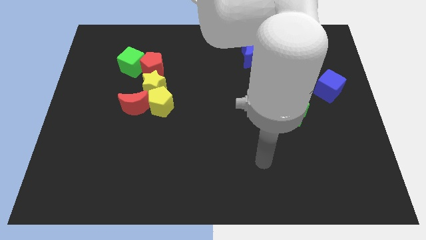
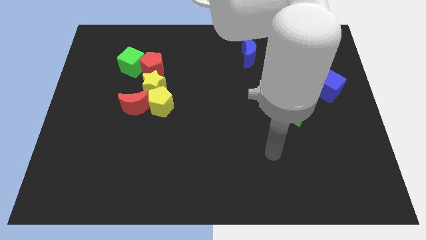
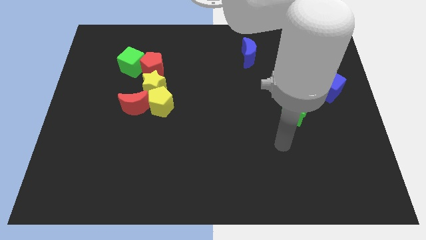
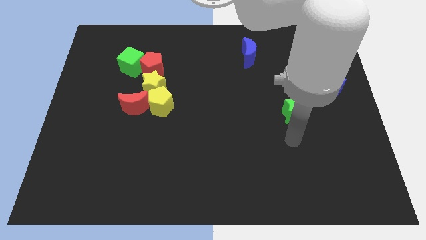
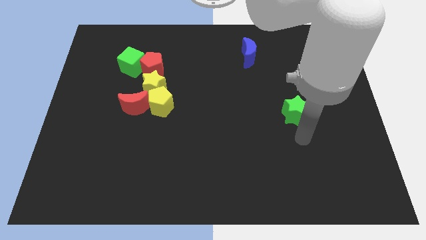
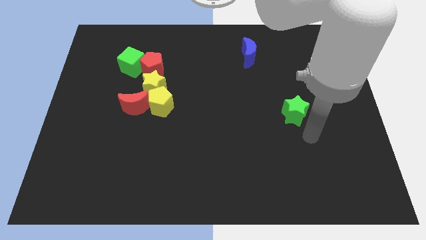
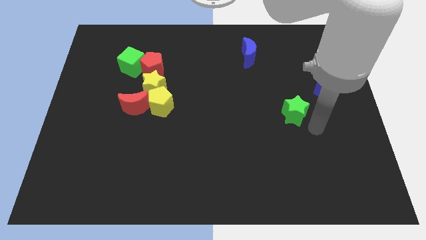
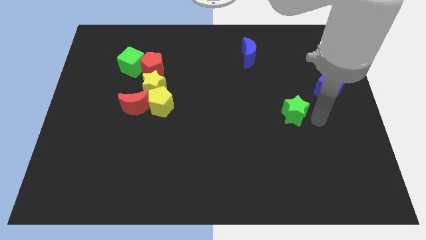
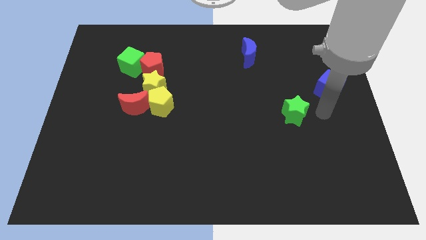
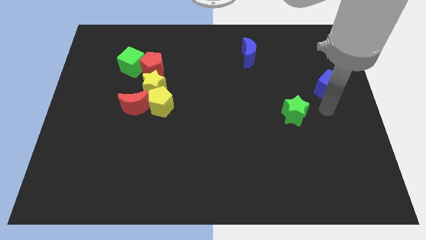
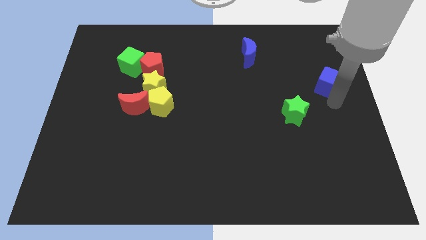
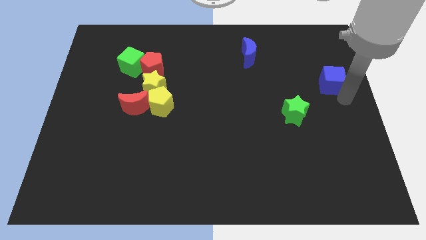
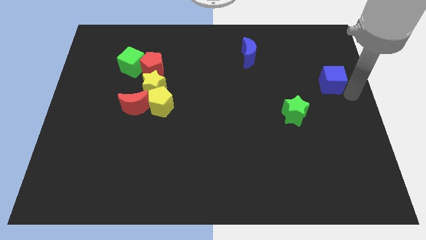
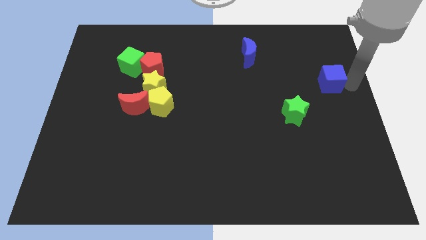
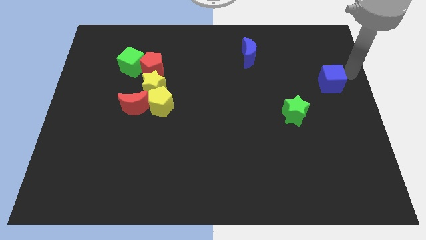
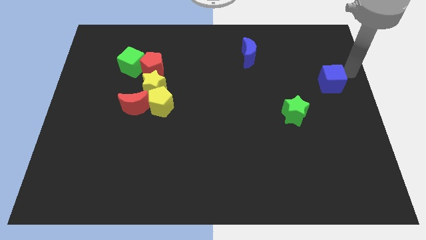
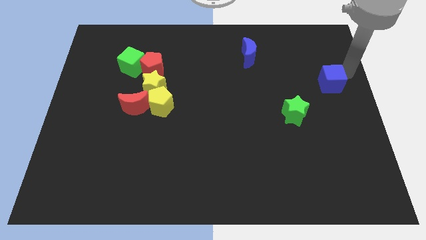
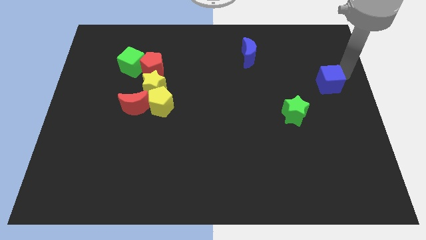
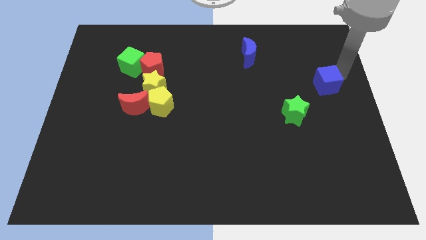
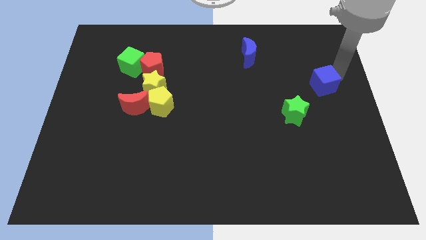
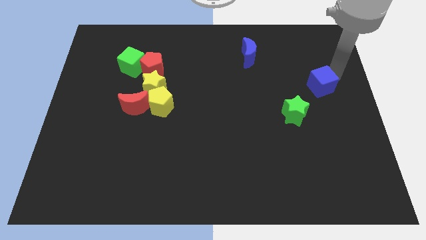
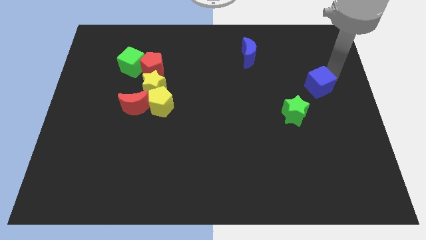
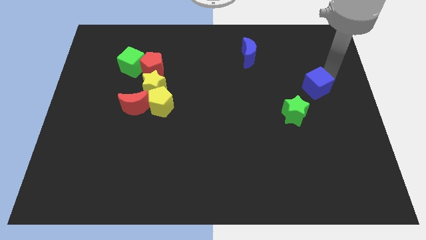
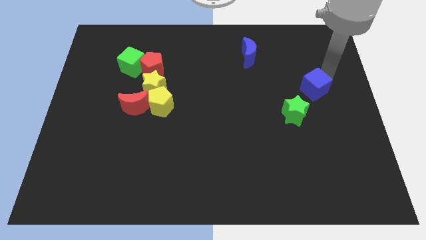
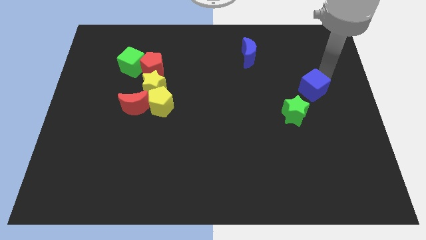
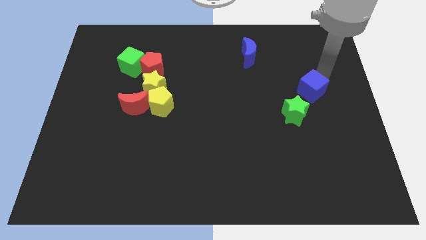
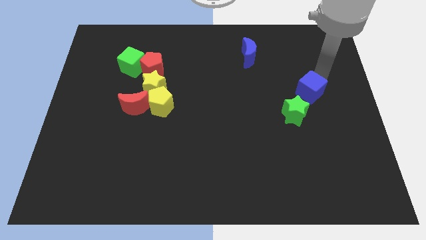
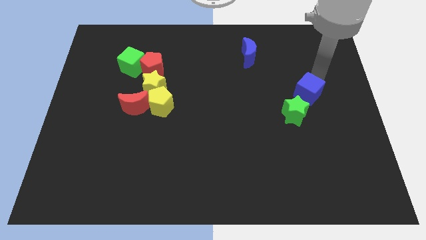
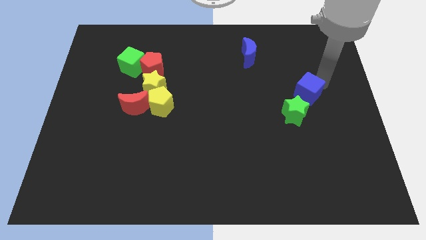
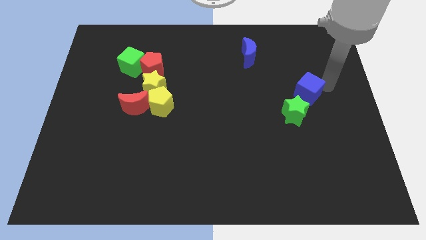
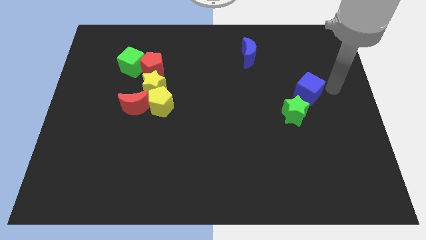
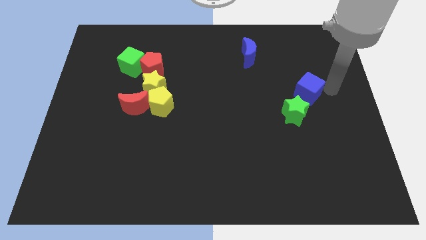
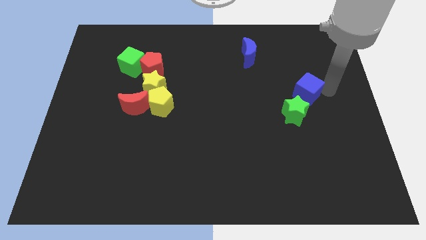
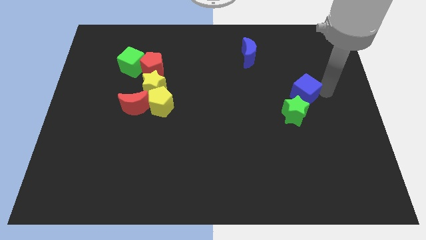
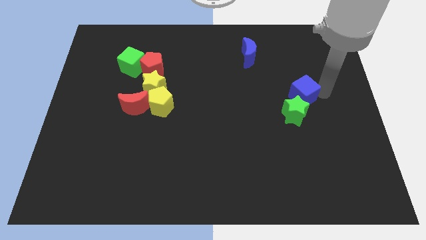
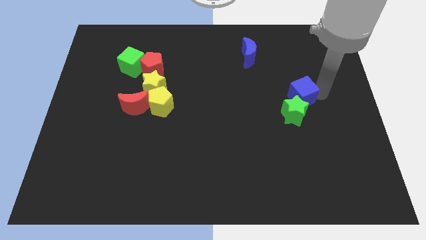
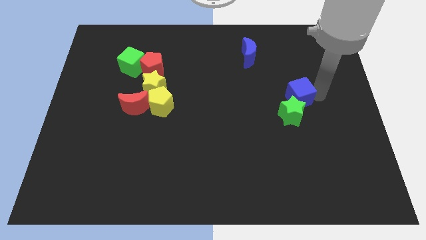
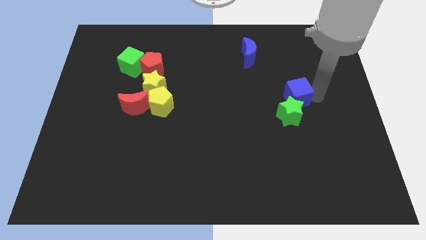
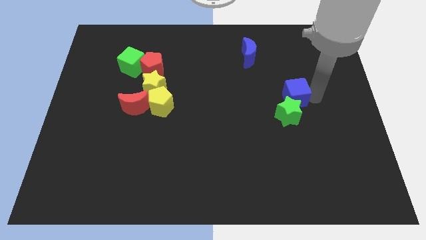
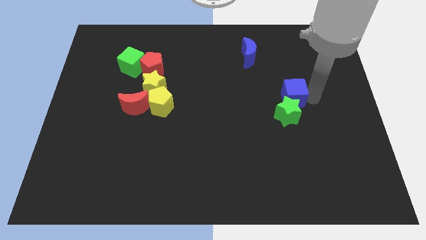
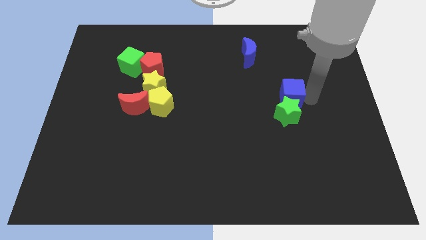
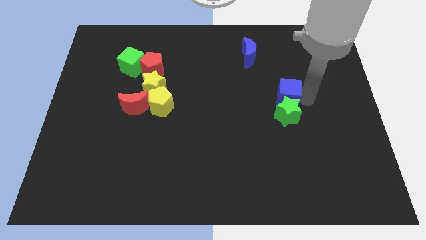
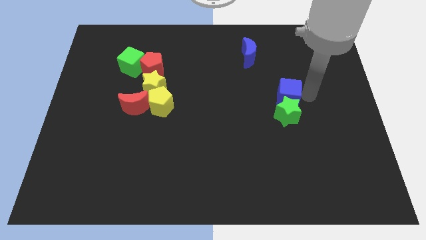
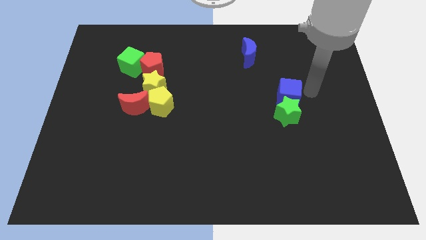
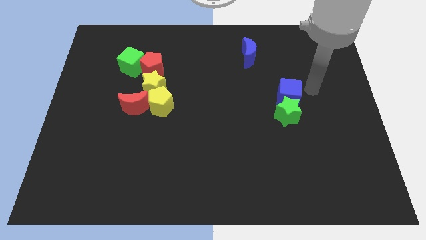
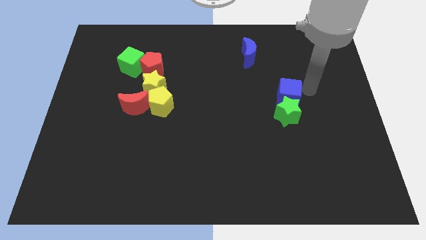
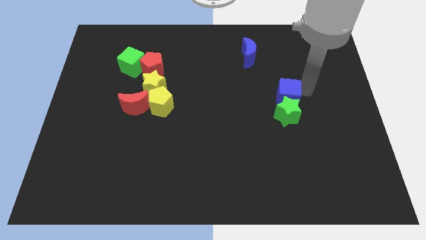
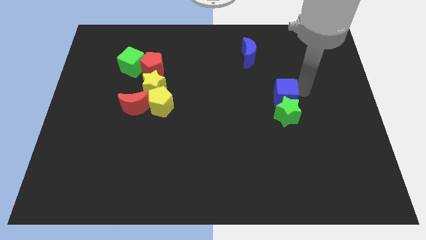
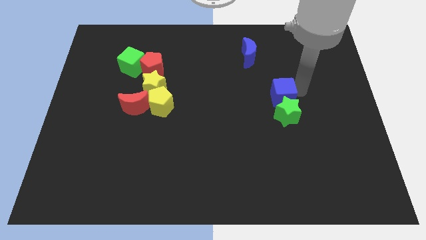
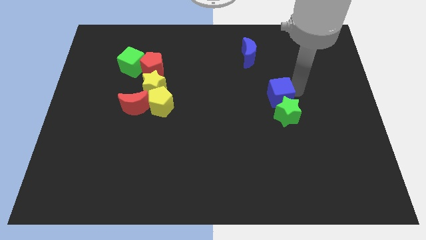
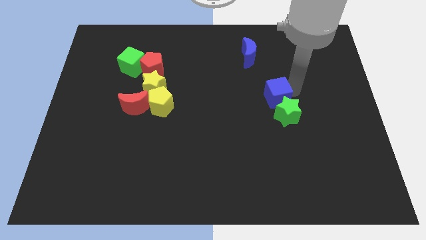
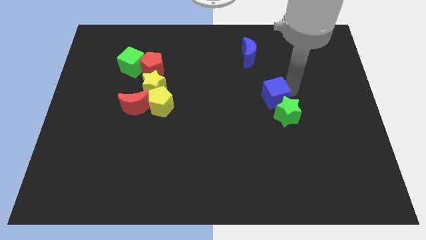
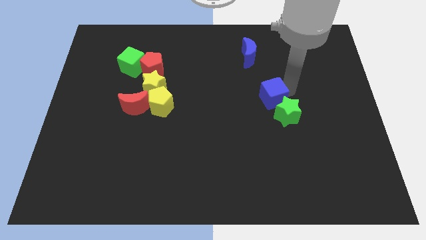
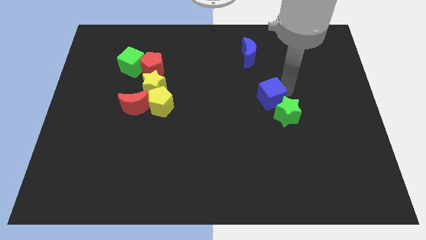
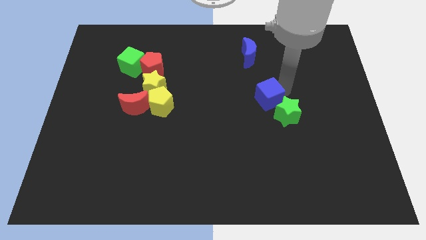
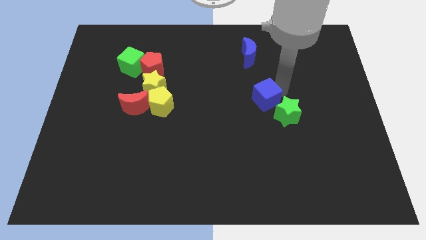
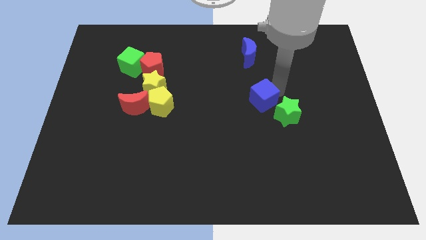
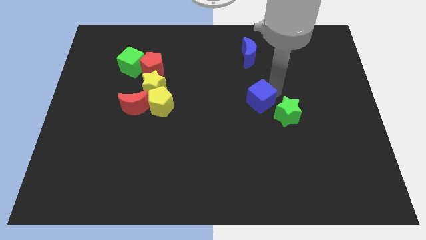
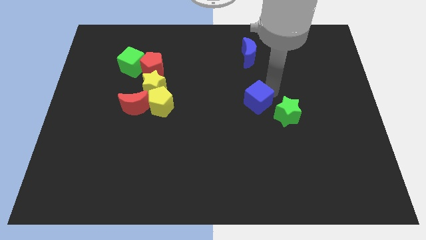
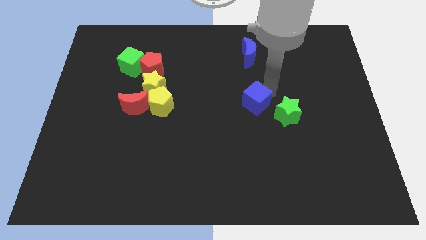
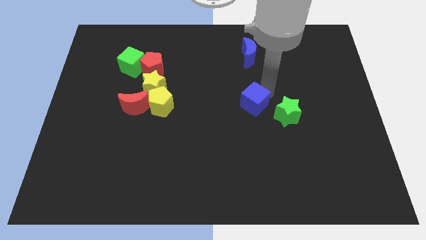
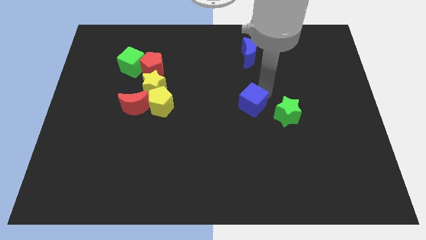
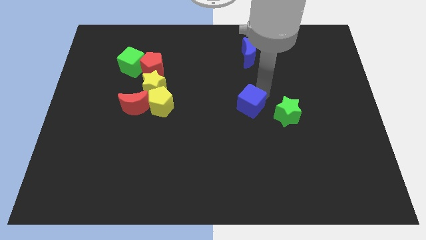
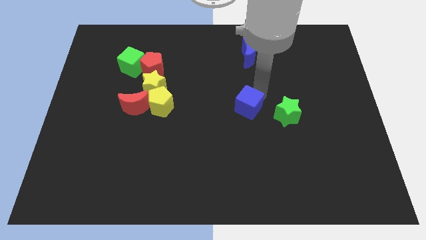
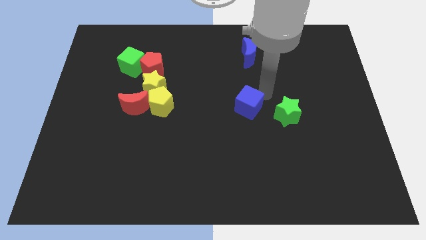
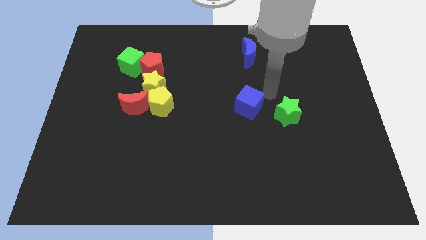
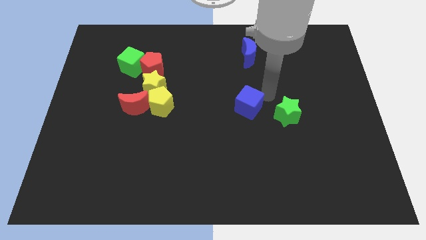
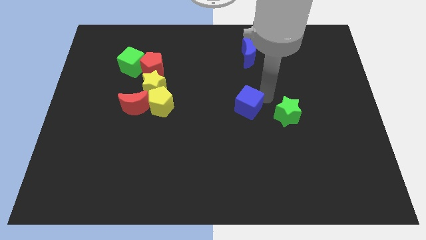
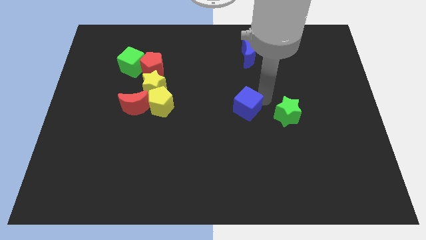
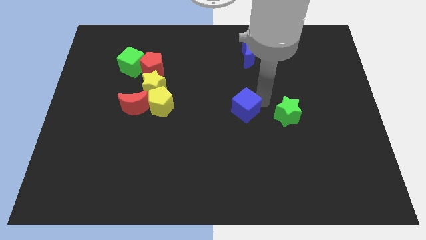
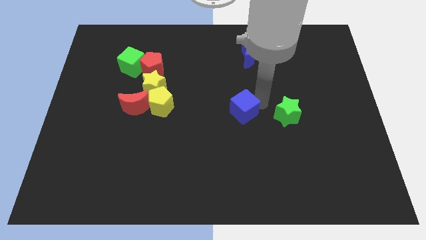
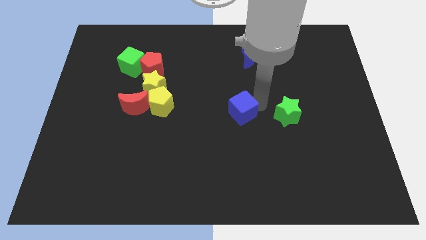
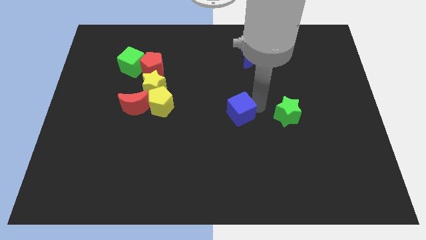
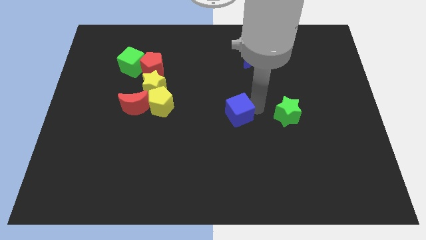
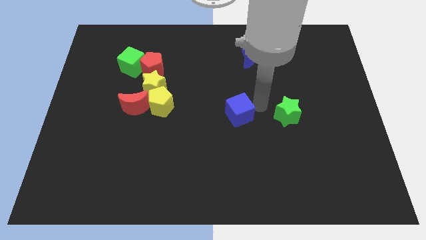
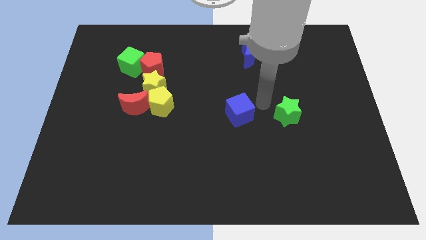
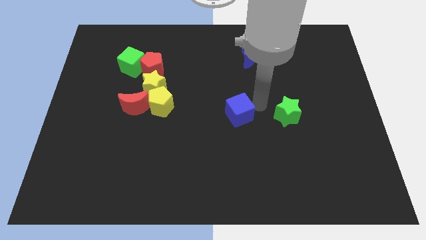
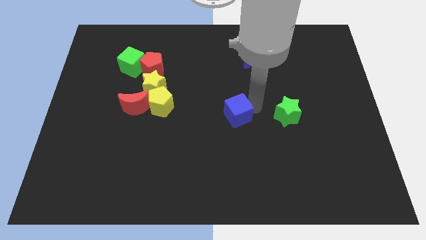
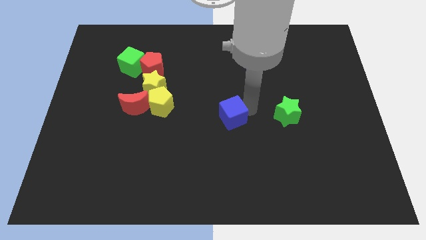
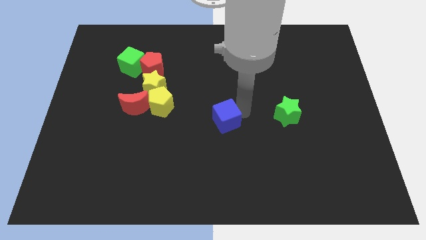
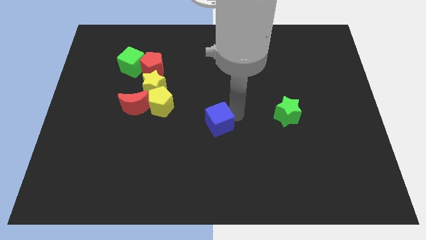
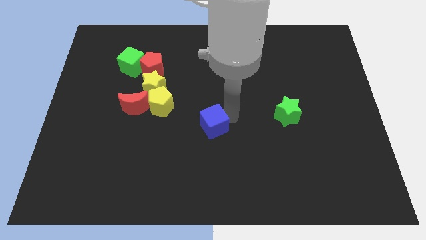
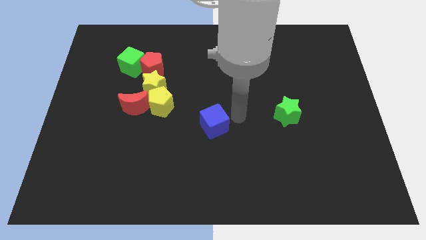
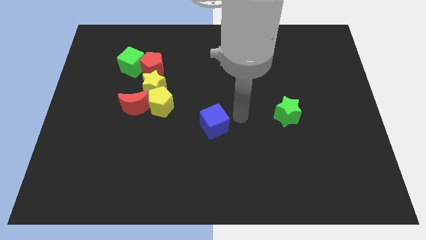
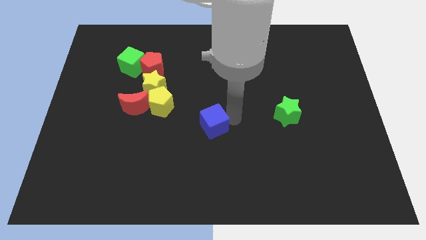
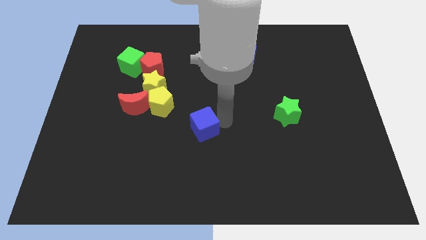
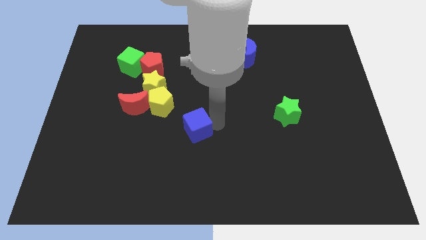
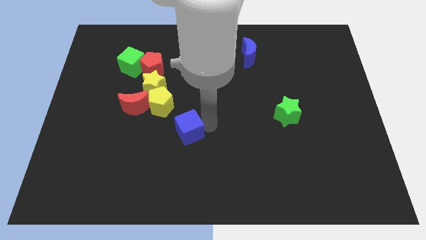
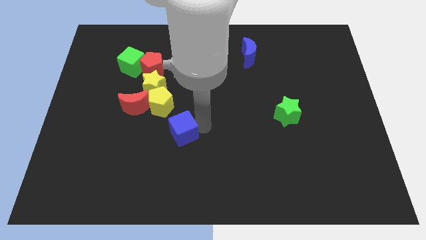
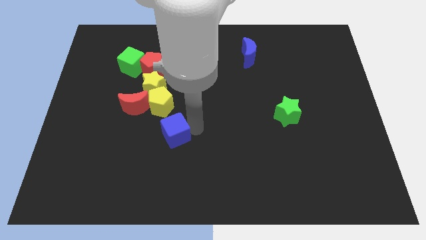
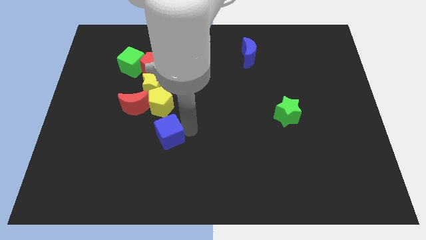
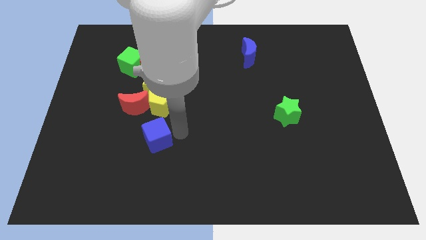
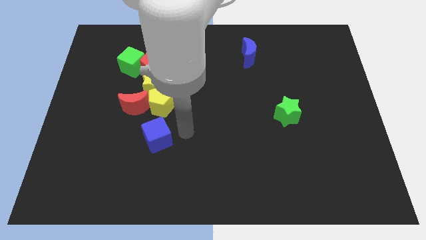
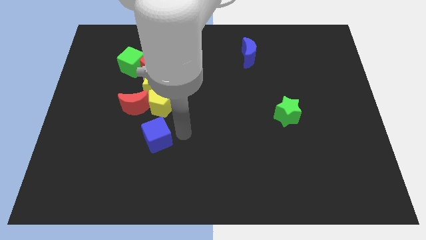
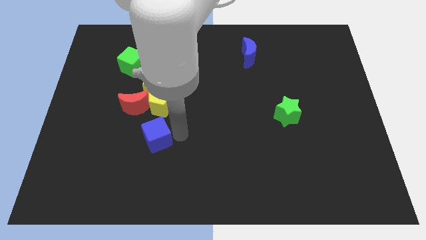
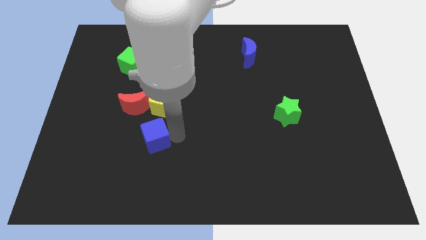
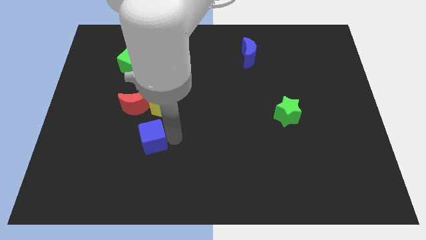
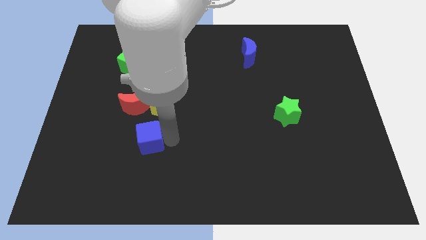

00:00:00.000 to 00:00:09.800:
slide the blue cube below the red moon
